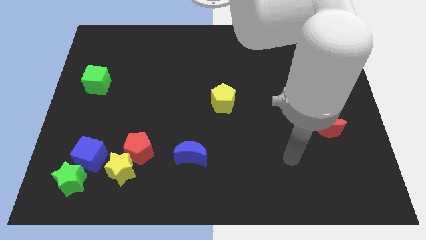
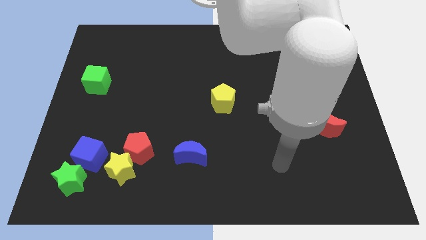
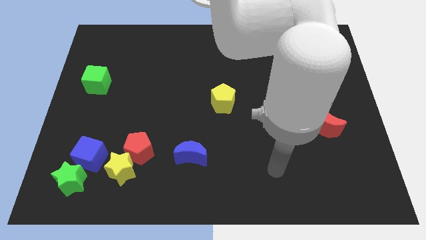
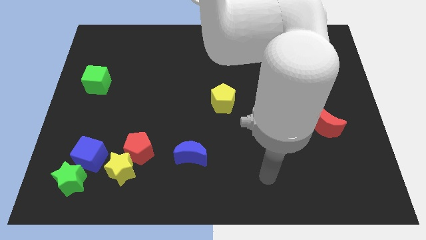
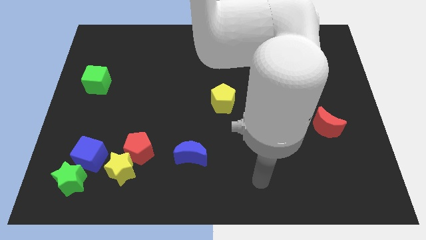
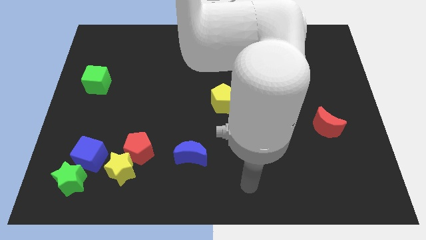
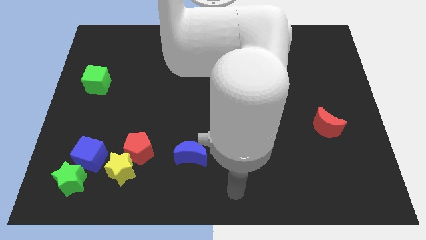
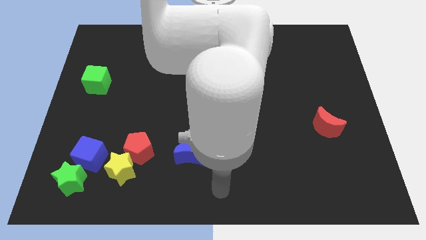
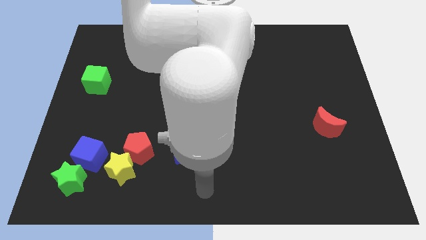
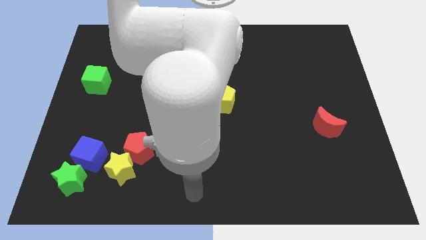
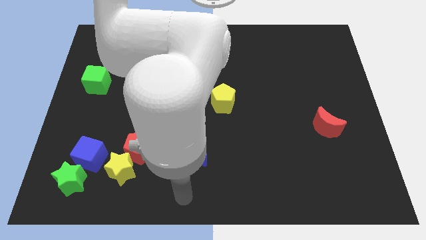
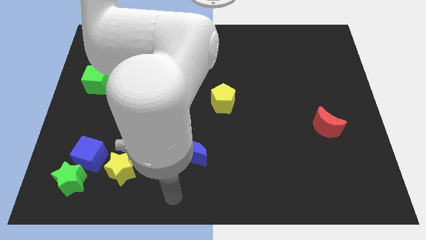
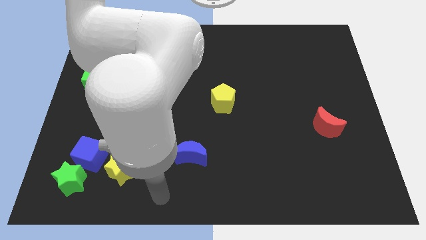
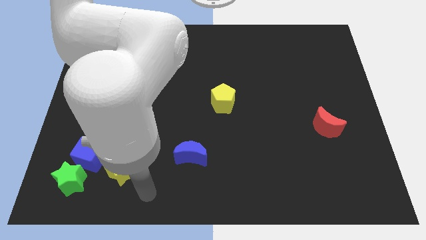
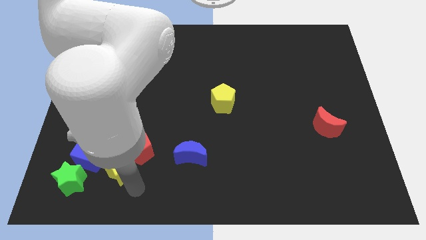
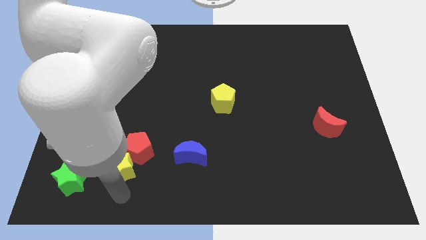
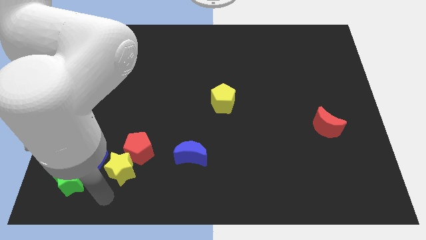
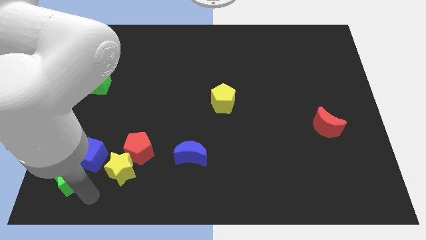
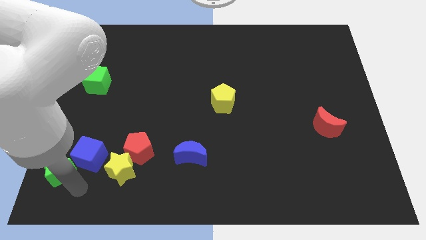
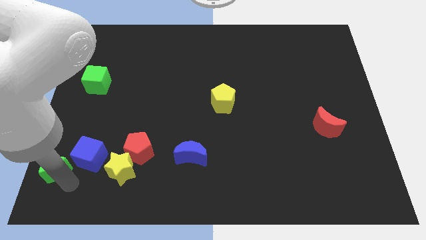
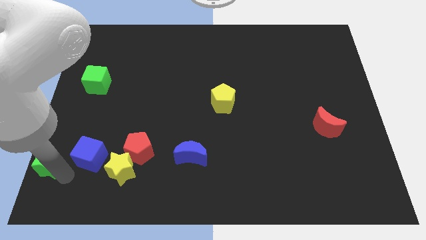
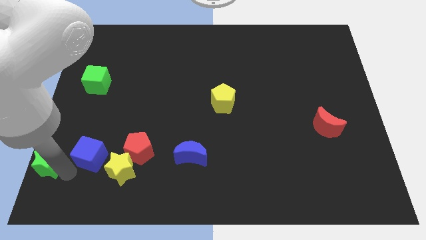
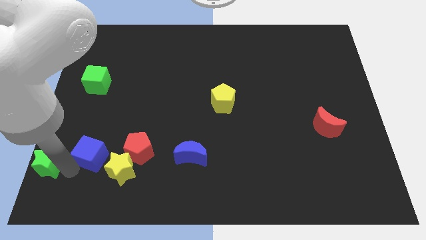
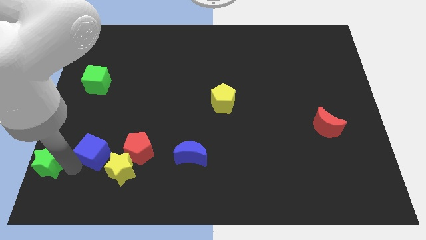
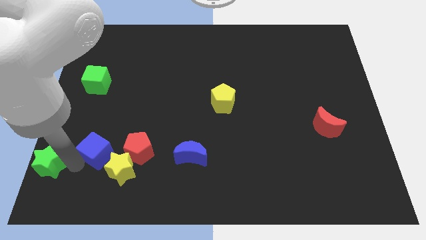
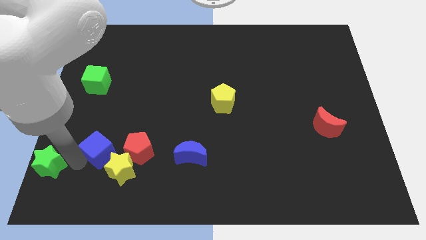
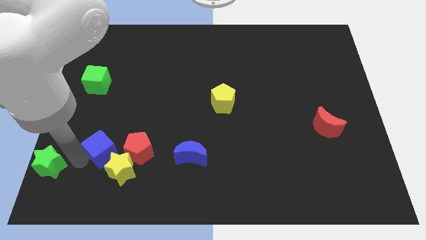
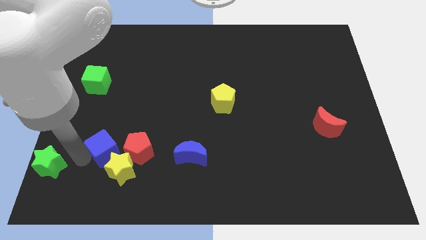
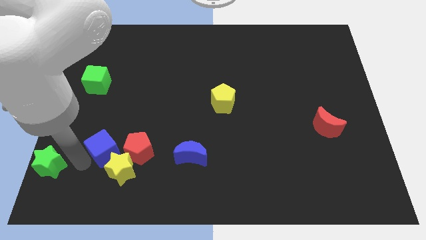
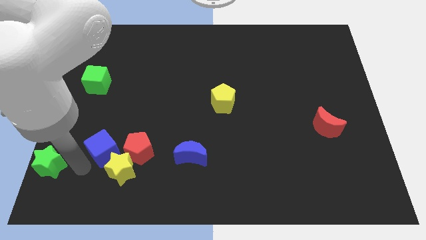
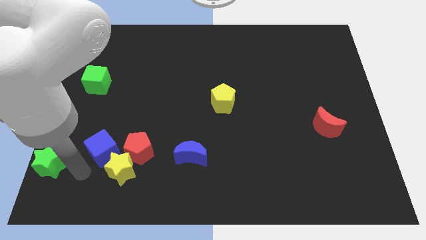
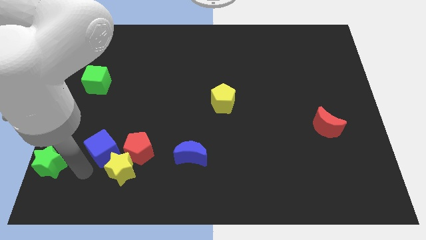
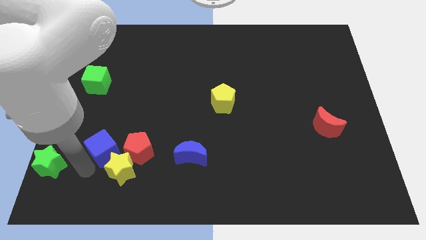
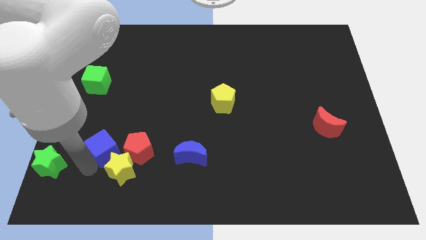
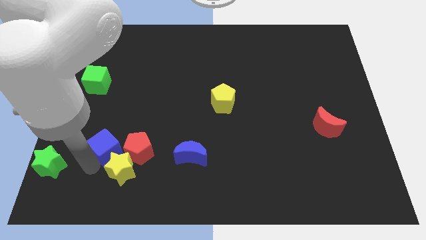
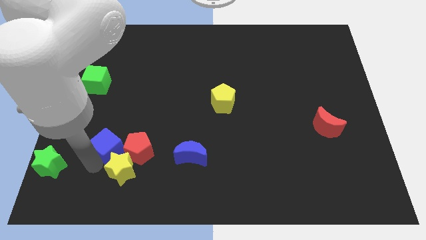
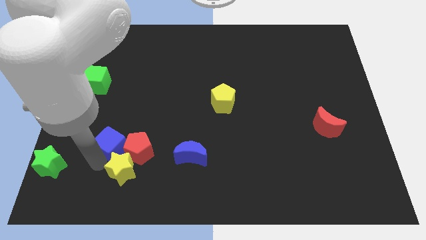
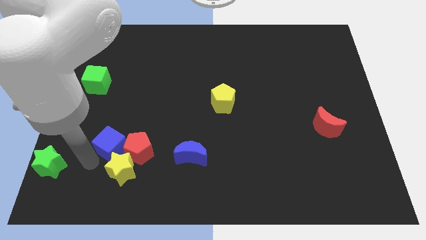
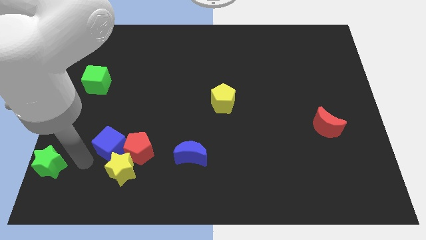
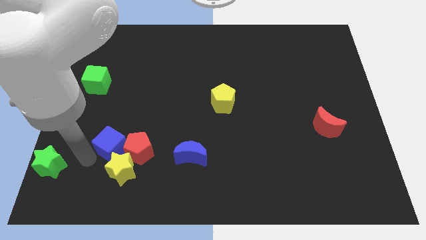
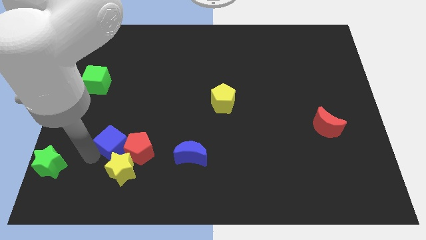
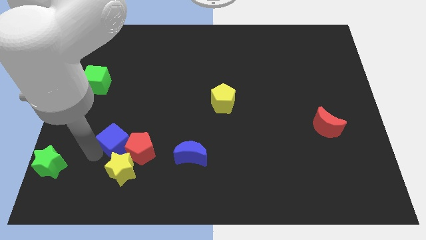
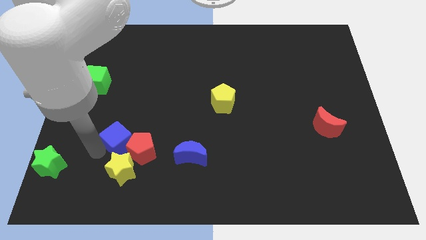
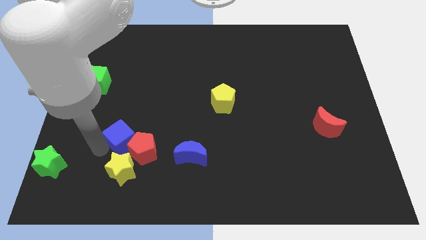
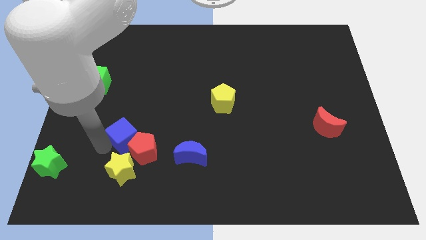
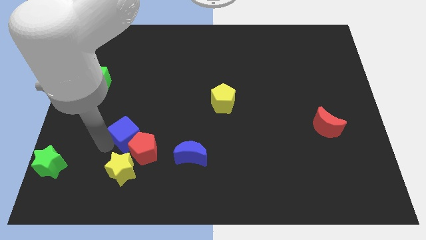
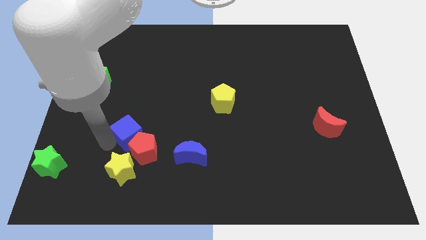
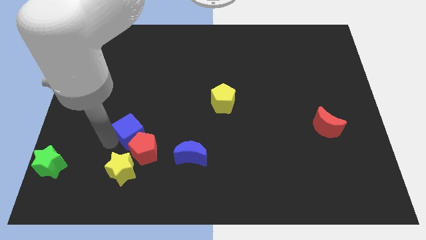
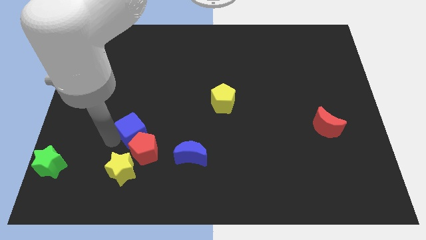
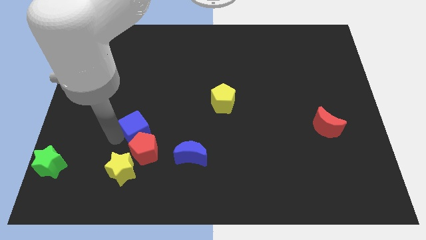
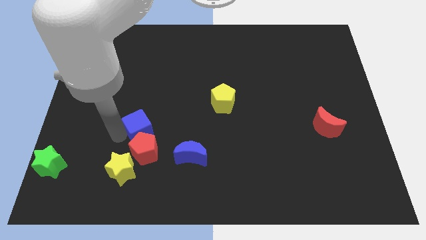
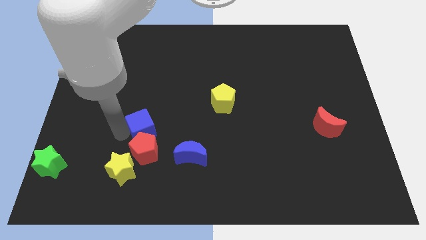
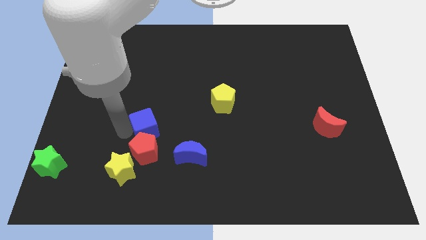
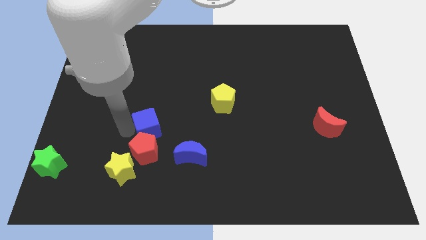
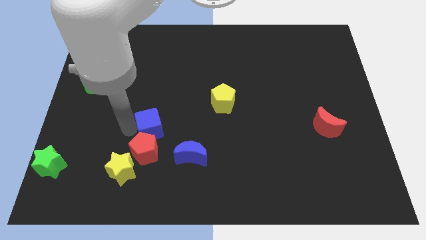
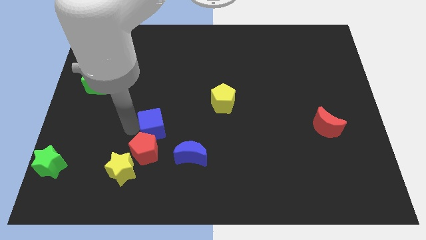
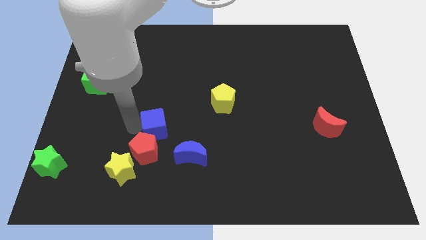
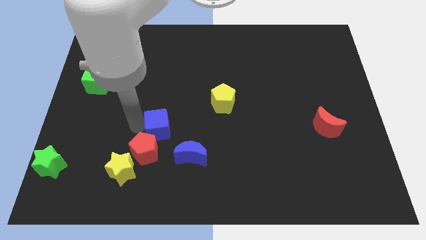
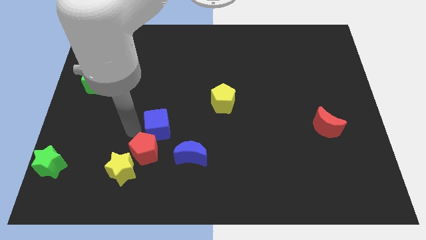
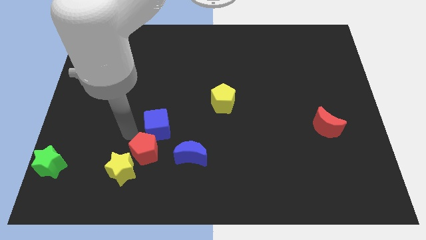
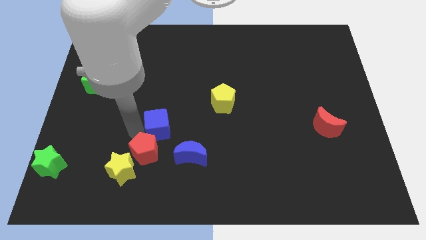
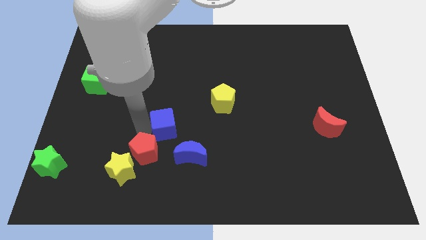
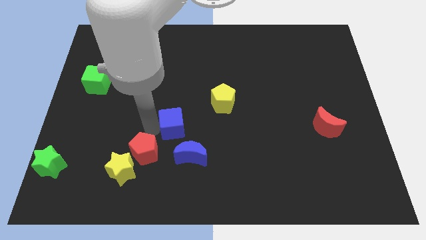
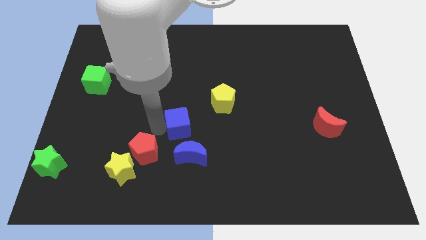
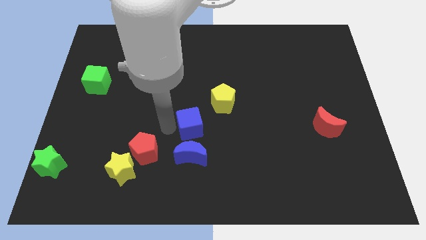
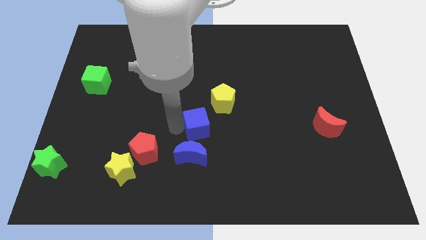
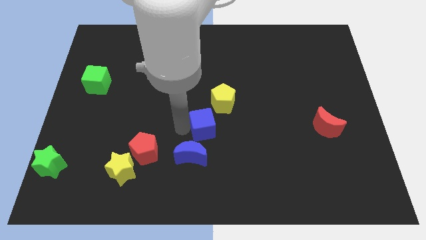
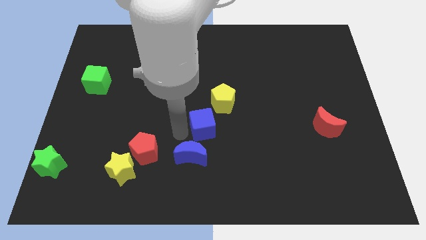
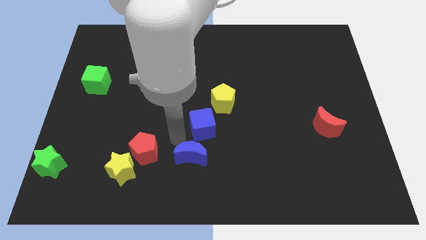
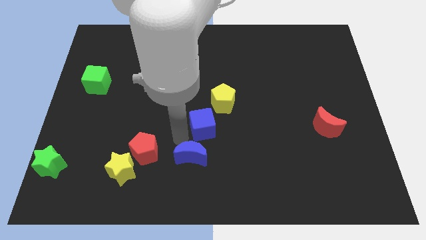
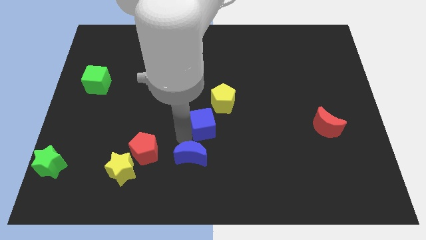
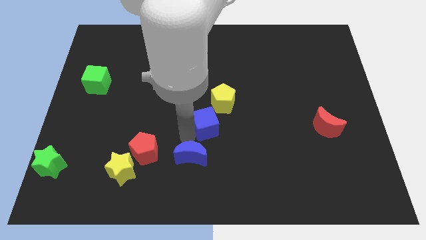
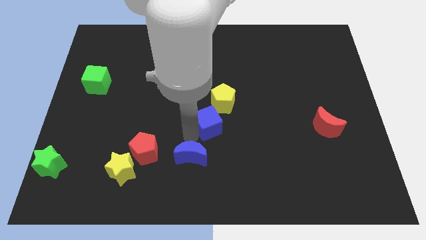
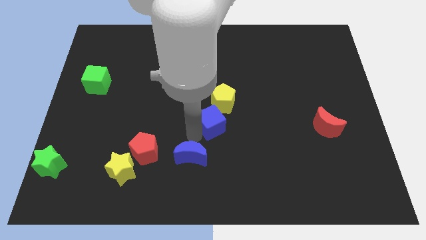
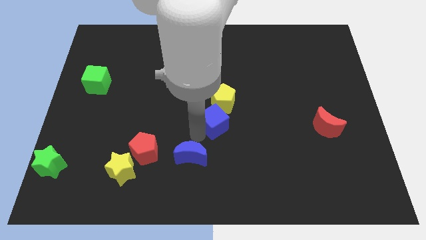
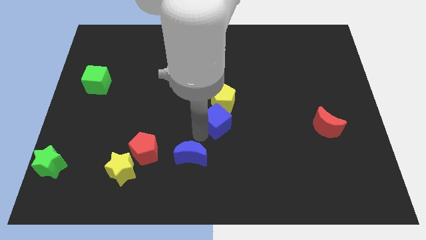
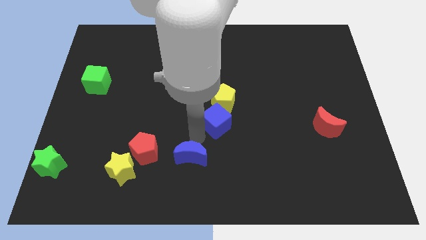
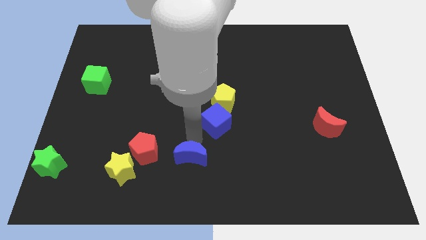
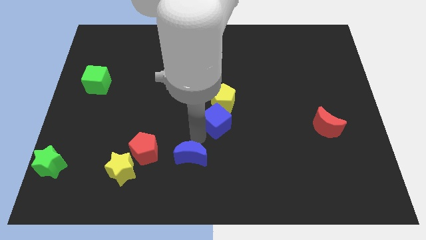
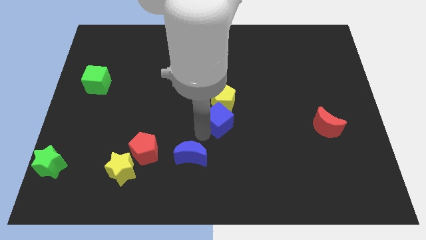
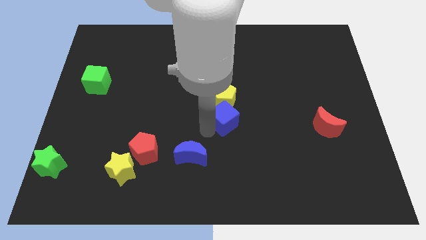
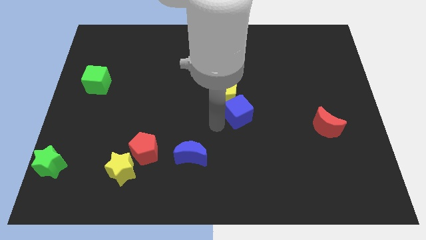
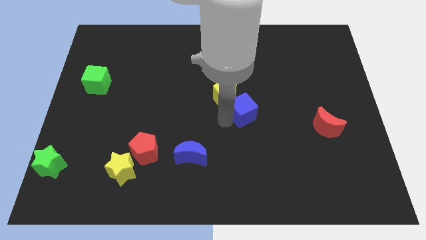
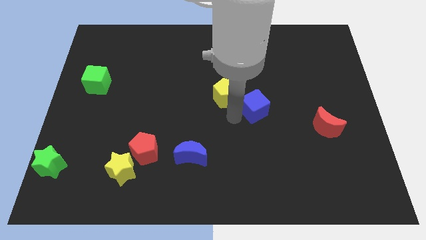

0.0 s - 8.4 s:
push the blue cube to the right side of the yellow pentagon
